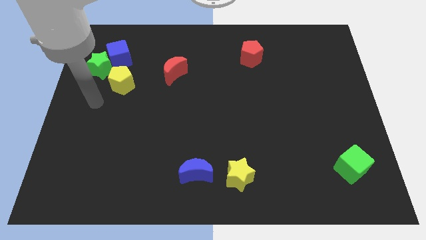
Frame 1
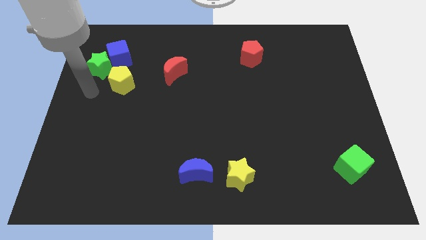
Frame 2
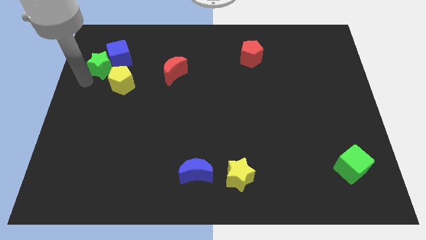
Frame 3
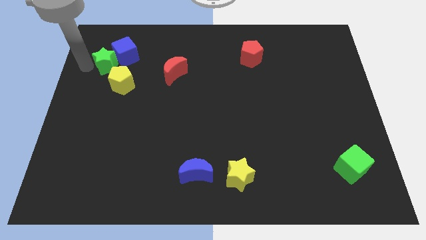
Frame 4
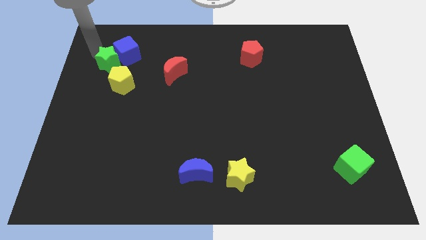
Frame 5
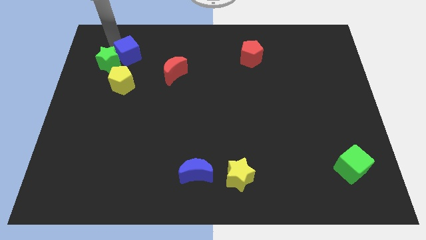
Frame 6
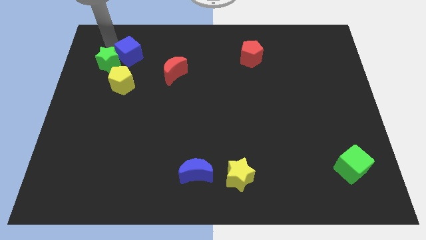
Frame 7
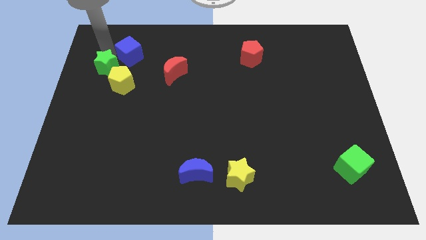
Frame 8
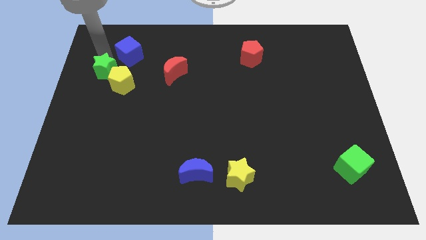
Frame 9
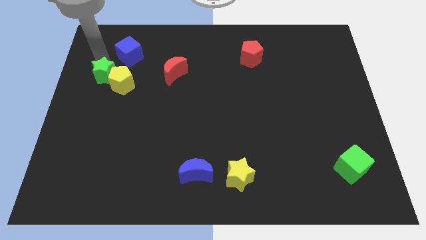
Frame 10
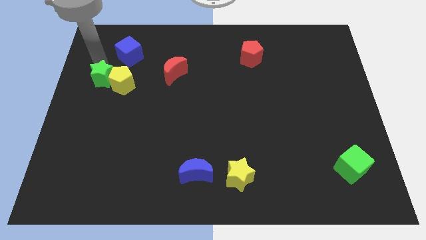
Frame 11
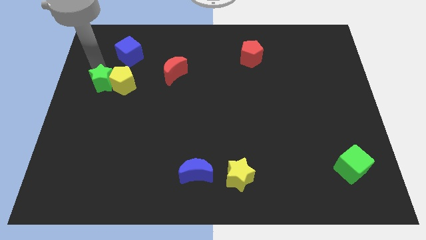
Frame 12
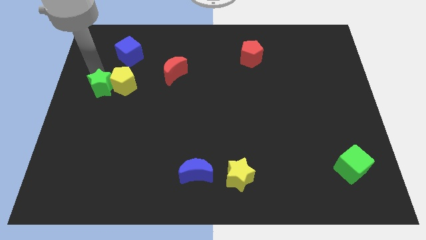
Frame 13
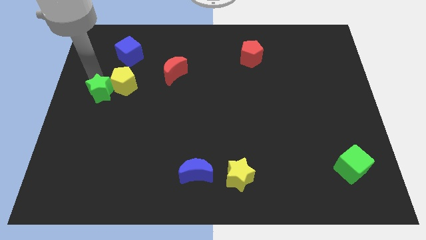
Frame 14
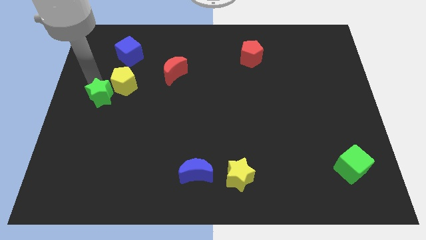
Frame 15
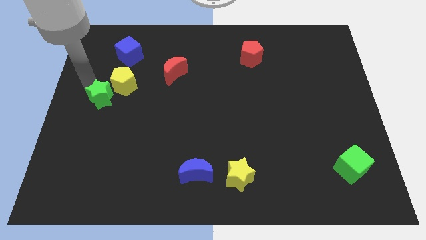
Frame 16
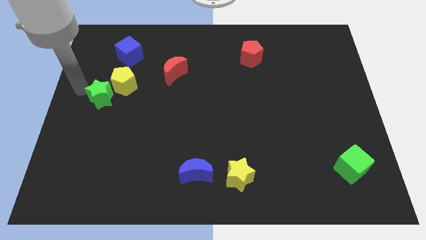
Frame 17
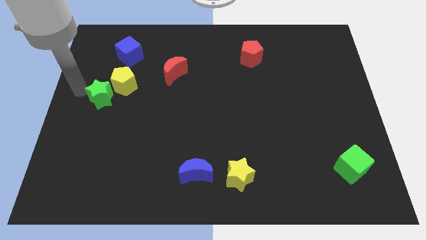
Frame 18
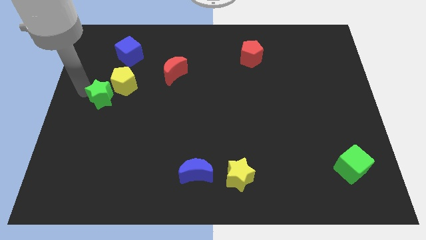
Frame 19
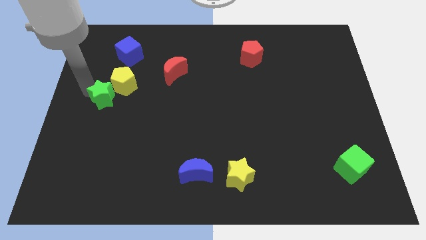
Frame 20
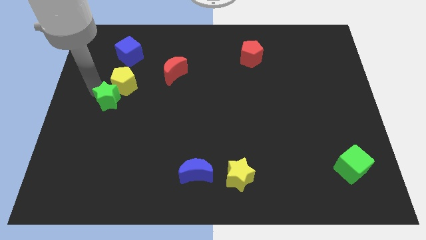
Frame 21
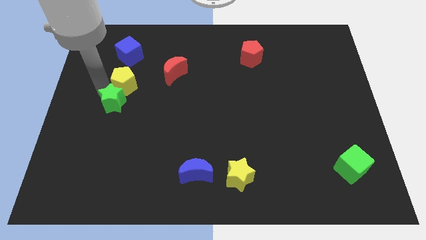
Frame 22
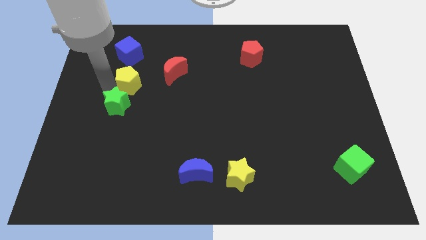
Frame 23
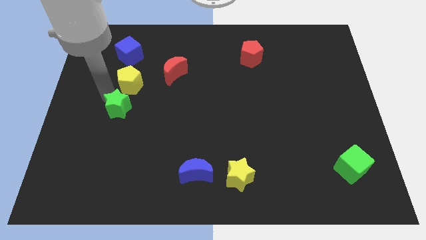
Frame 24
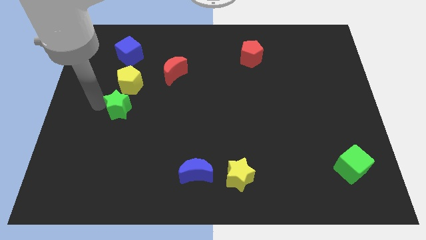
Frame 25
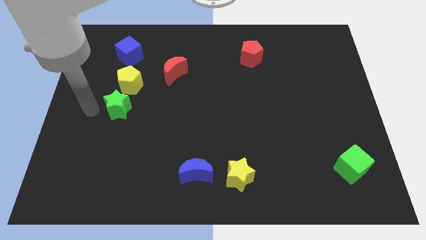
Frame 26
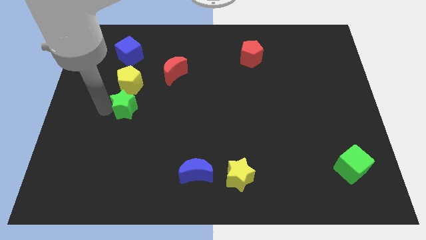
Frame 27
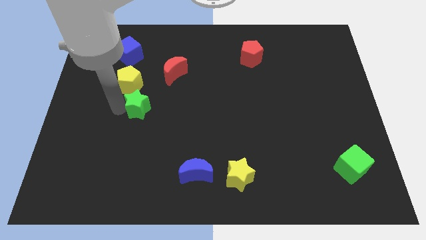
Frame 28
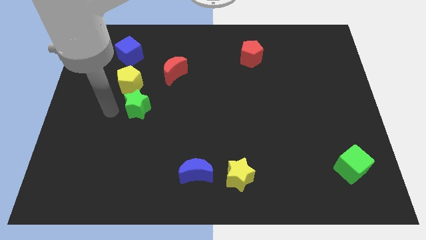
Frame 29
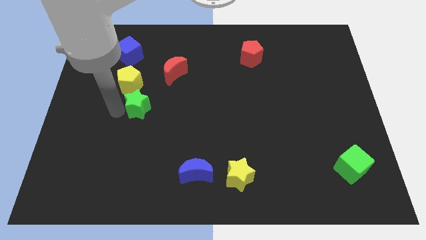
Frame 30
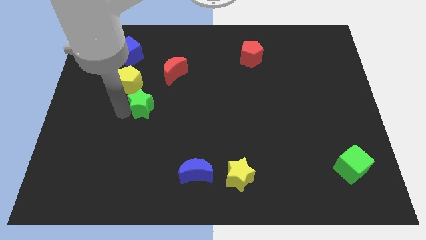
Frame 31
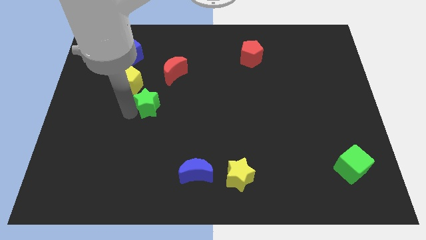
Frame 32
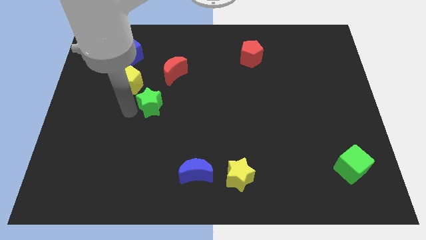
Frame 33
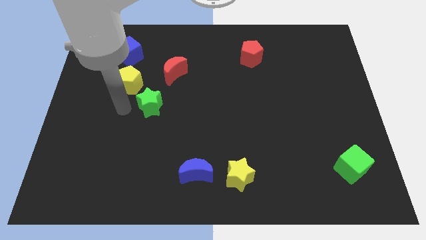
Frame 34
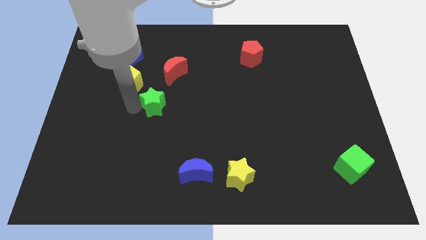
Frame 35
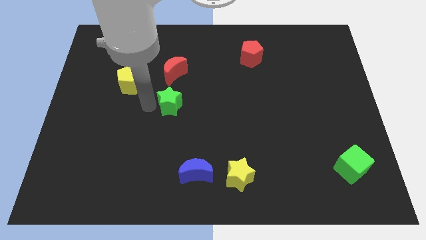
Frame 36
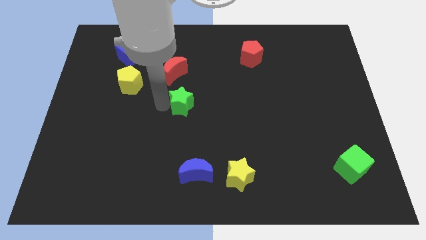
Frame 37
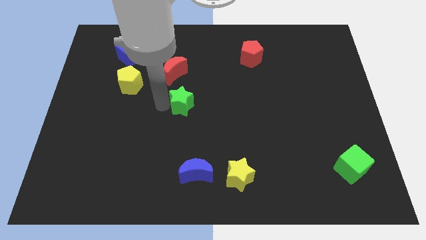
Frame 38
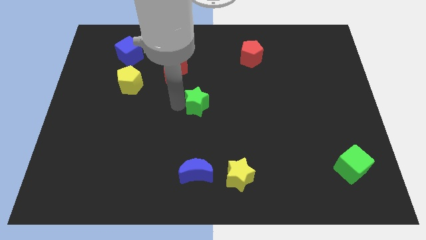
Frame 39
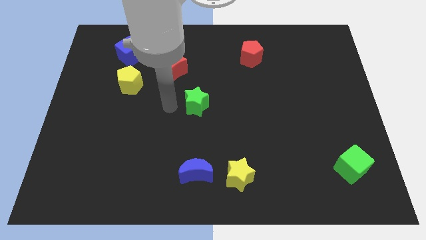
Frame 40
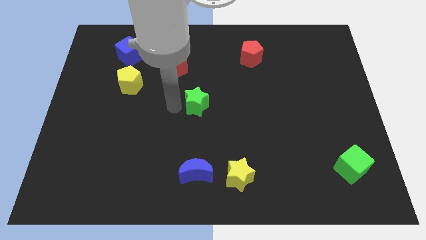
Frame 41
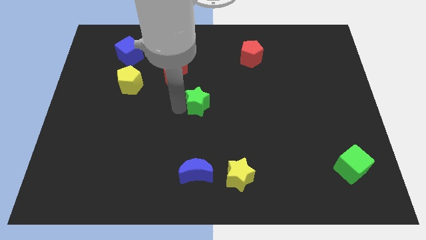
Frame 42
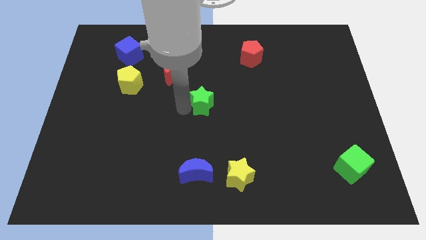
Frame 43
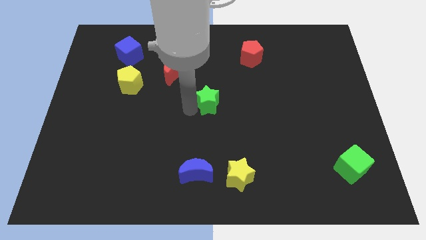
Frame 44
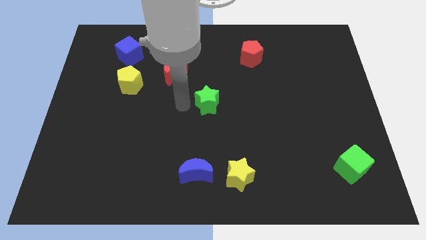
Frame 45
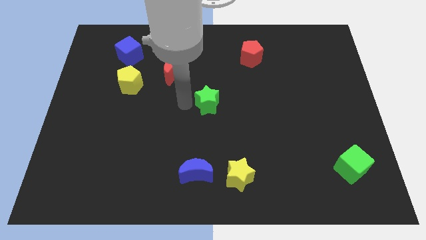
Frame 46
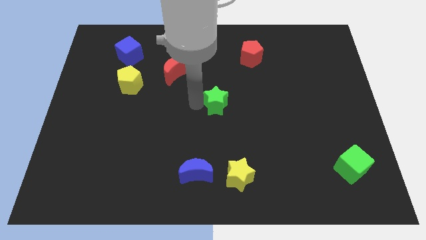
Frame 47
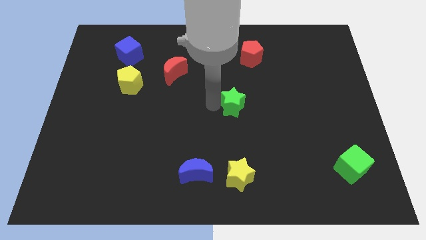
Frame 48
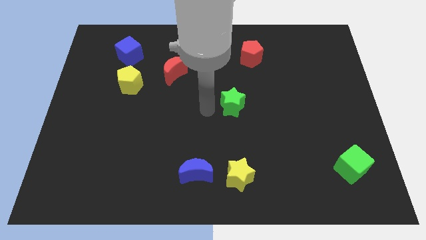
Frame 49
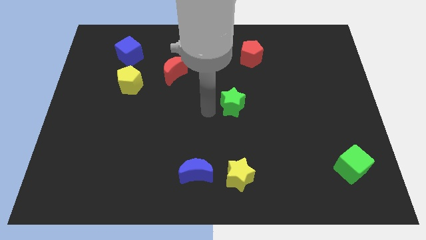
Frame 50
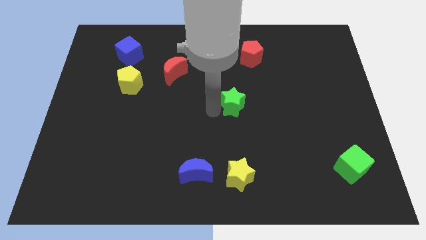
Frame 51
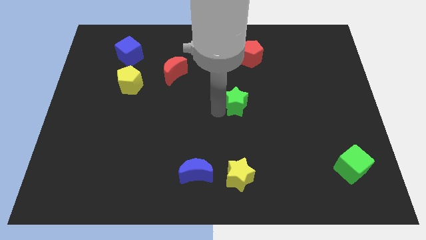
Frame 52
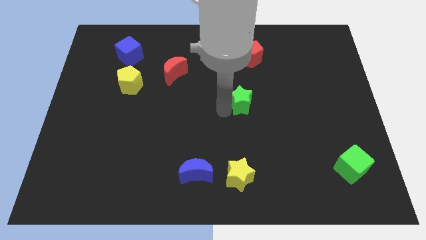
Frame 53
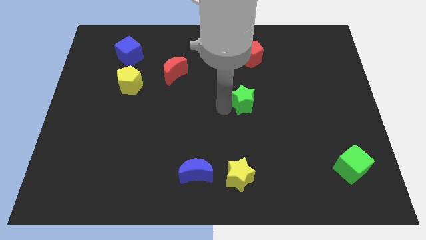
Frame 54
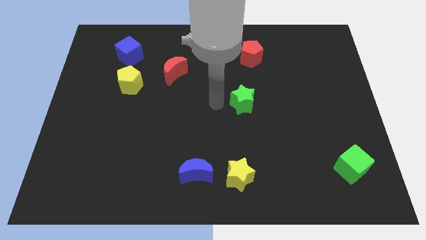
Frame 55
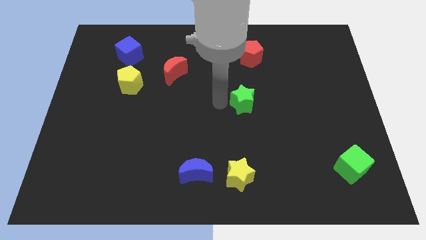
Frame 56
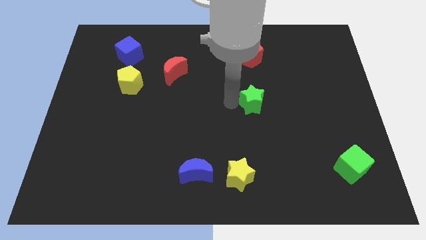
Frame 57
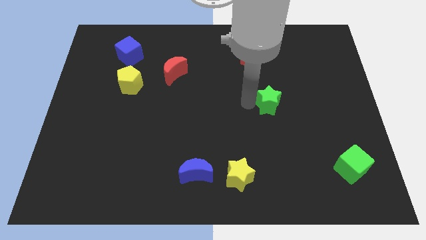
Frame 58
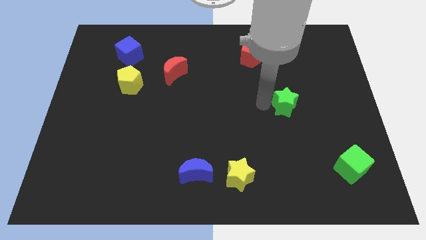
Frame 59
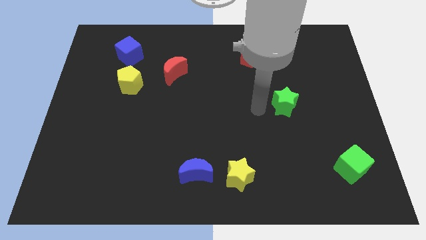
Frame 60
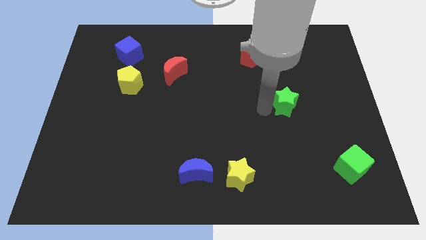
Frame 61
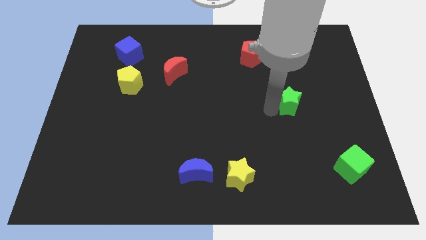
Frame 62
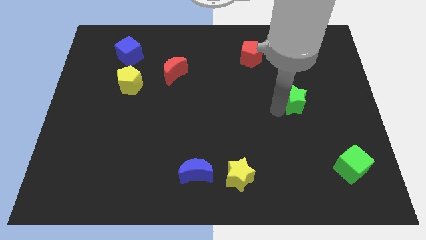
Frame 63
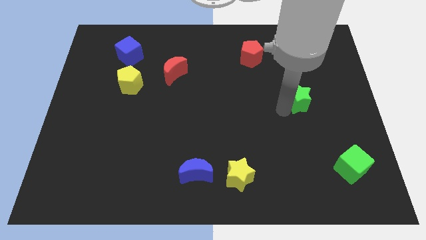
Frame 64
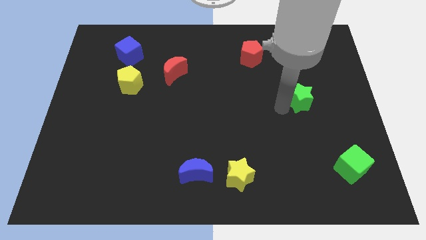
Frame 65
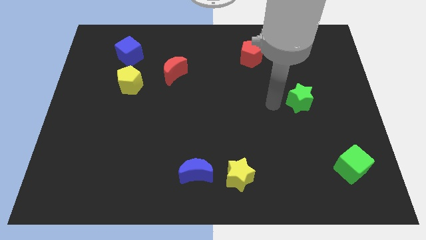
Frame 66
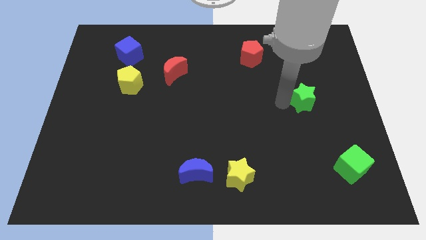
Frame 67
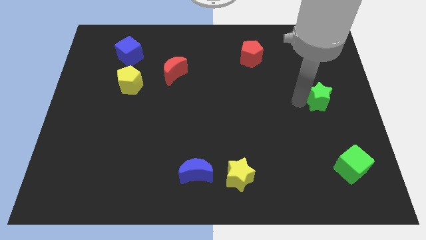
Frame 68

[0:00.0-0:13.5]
put the green star to the center right
